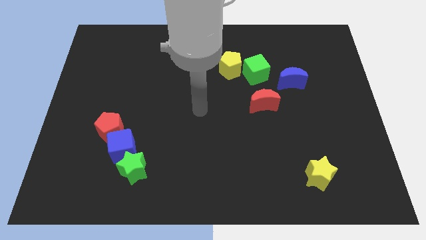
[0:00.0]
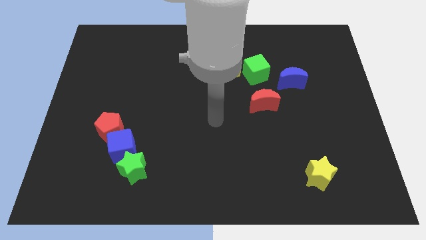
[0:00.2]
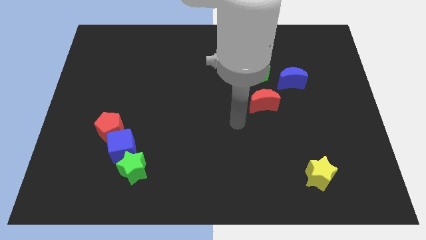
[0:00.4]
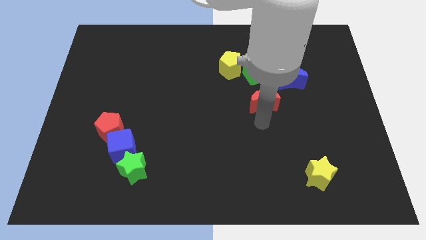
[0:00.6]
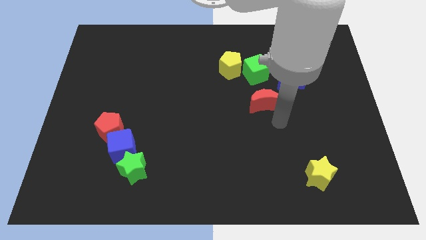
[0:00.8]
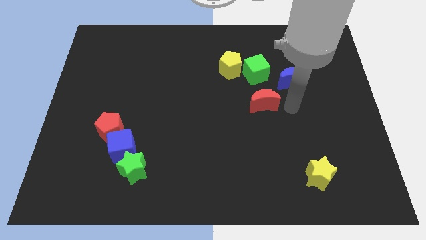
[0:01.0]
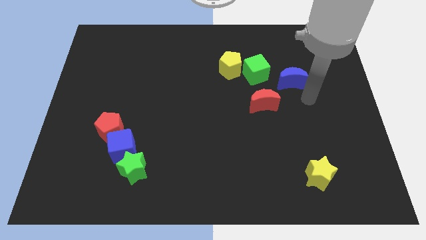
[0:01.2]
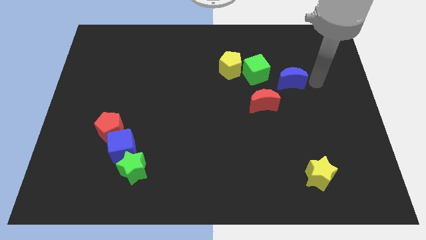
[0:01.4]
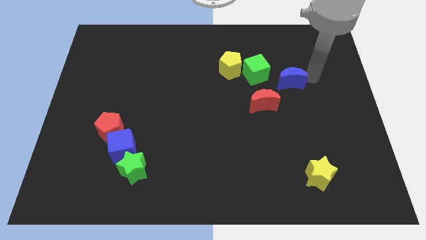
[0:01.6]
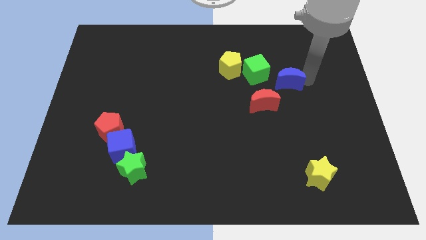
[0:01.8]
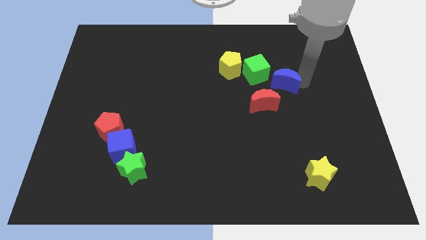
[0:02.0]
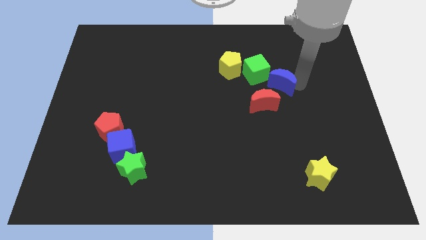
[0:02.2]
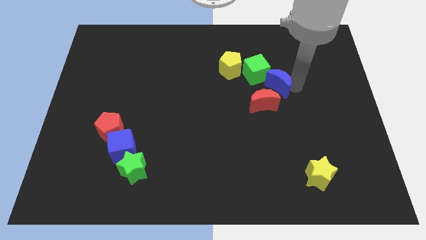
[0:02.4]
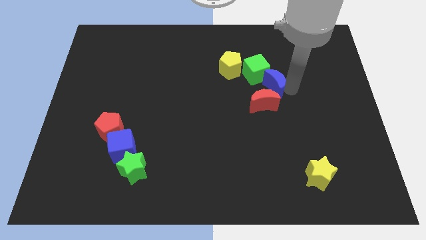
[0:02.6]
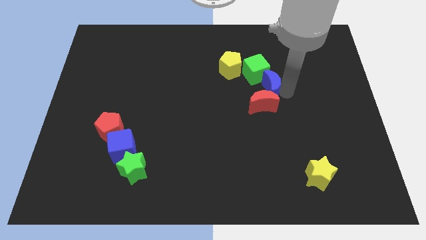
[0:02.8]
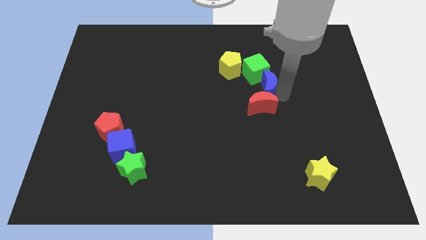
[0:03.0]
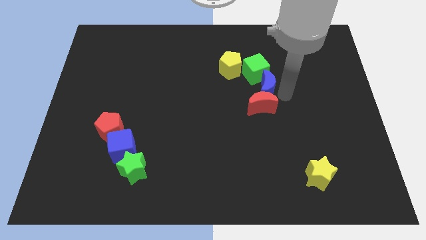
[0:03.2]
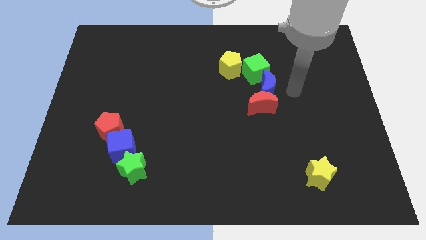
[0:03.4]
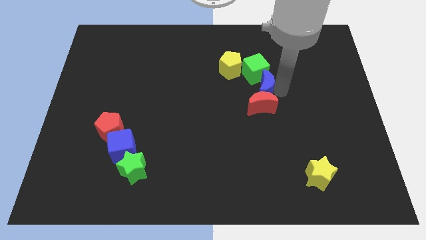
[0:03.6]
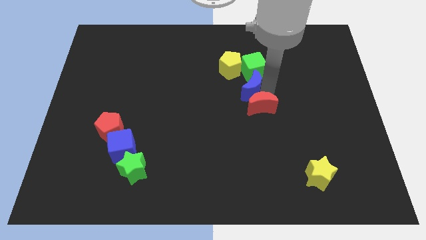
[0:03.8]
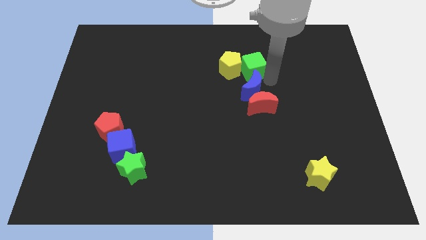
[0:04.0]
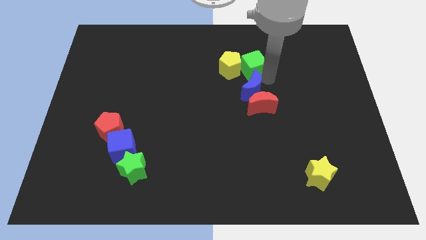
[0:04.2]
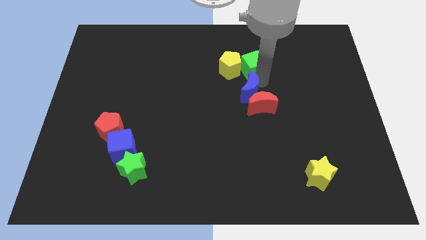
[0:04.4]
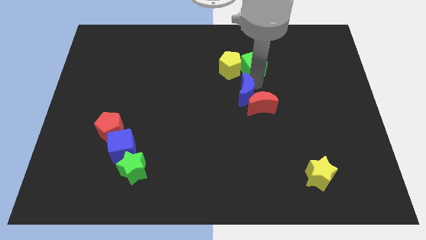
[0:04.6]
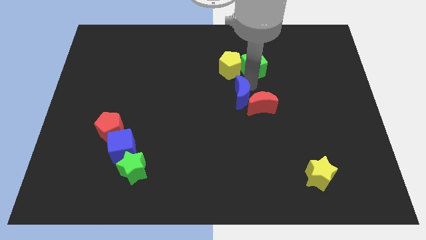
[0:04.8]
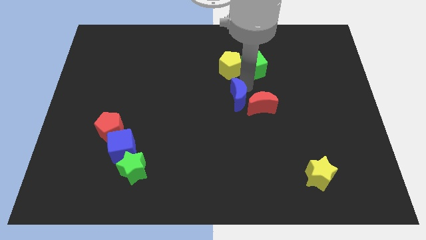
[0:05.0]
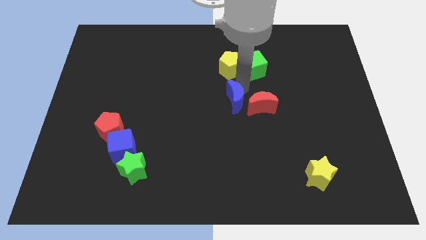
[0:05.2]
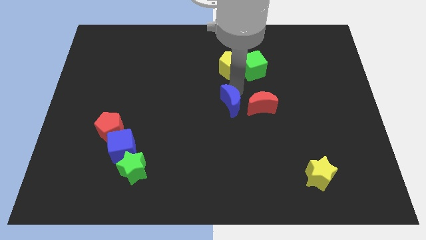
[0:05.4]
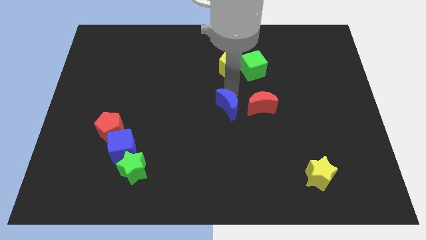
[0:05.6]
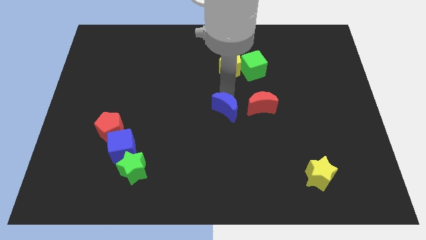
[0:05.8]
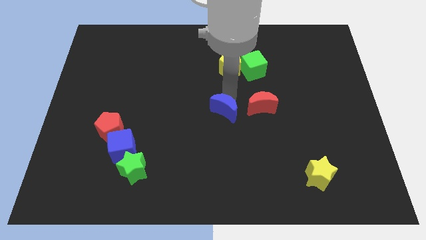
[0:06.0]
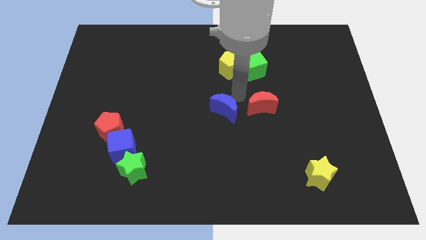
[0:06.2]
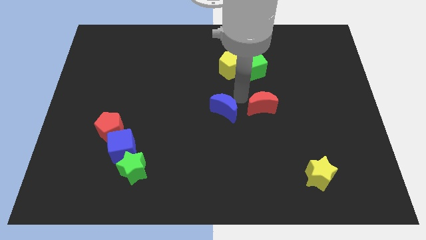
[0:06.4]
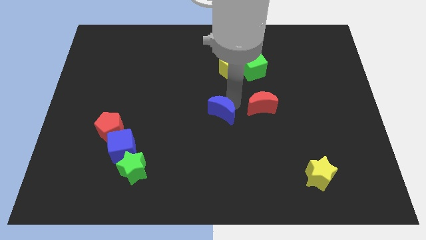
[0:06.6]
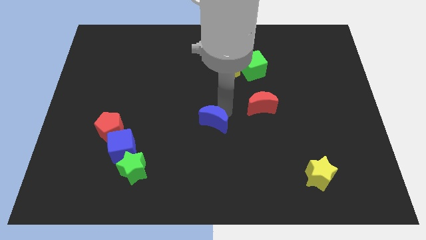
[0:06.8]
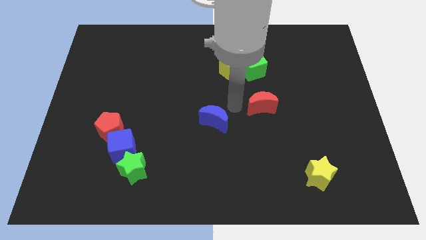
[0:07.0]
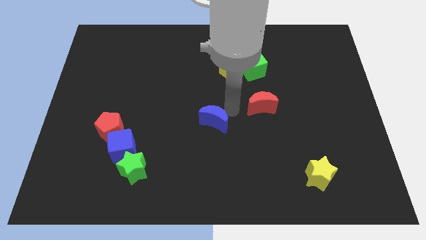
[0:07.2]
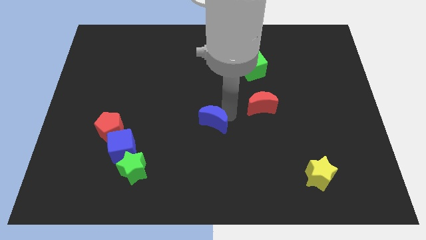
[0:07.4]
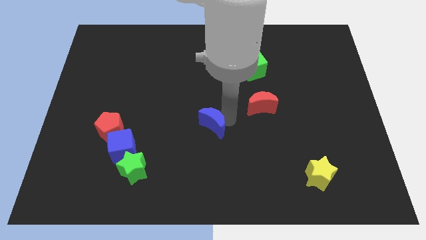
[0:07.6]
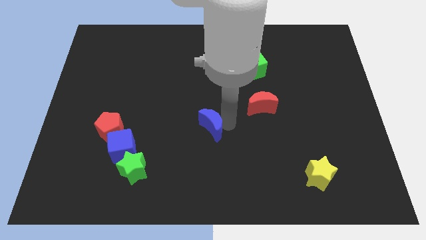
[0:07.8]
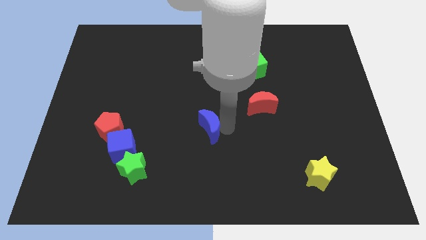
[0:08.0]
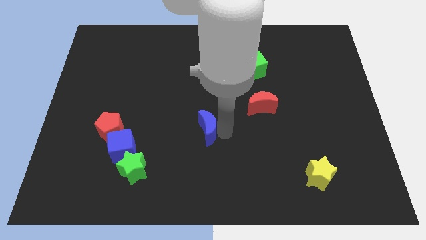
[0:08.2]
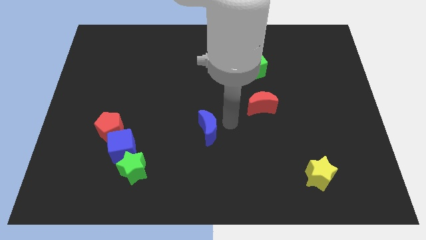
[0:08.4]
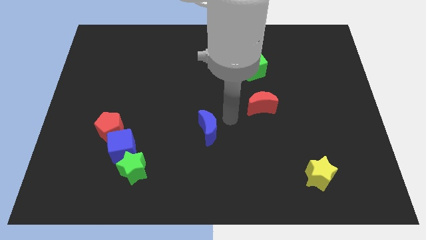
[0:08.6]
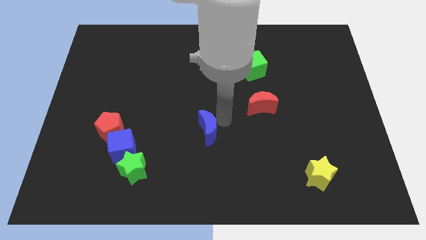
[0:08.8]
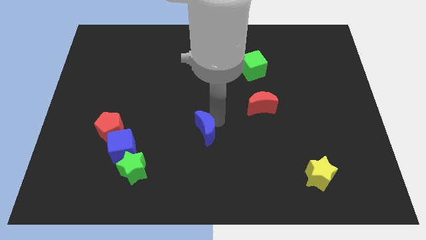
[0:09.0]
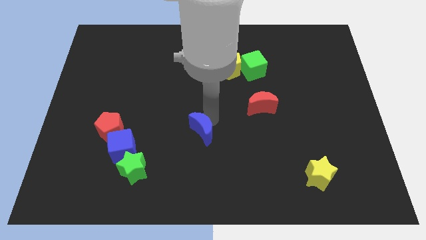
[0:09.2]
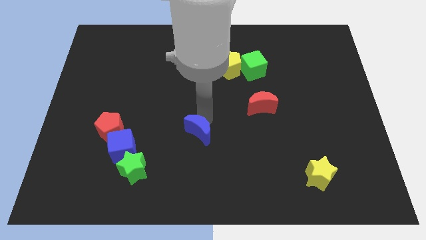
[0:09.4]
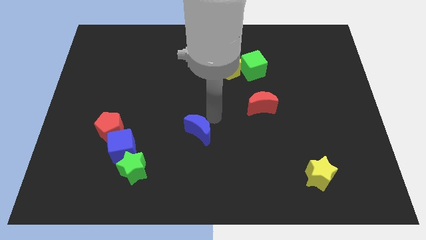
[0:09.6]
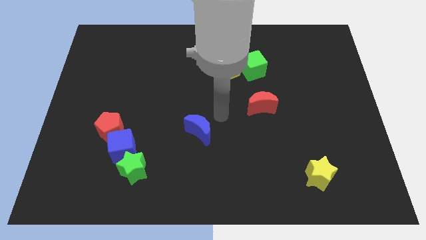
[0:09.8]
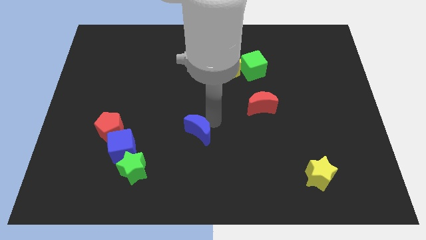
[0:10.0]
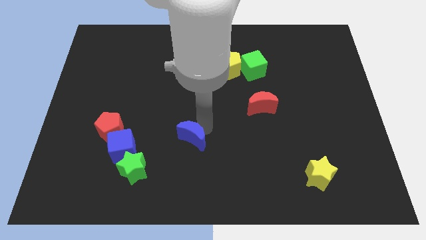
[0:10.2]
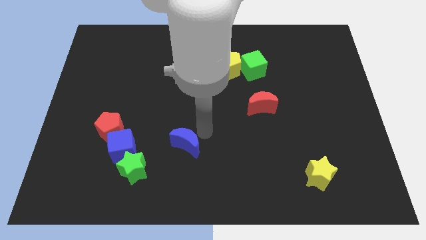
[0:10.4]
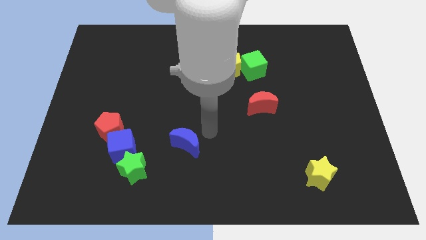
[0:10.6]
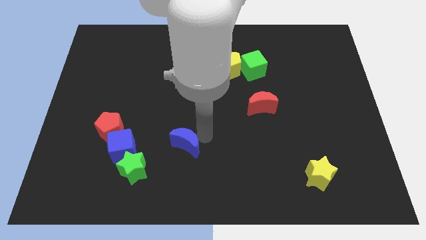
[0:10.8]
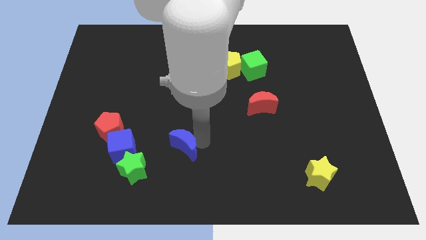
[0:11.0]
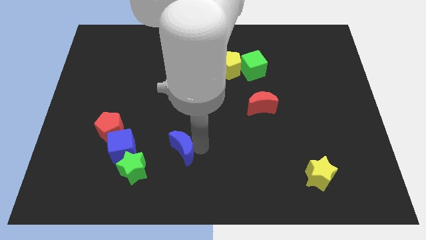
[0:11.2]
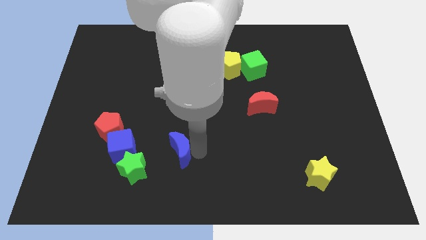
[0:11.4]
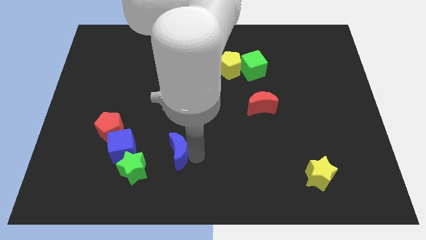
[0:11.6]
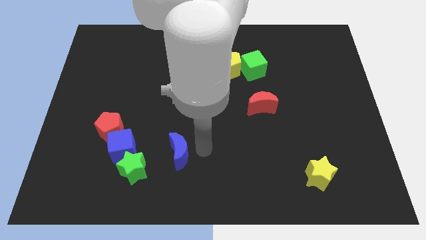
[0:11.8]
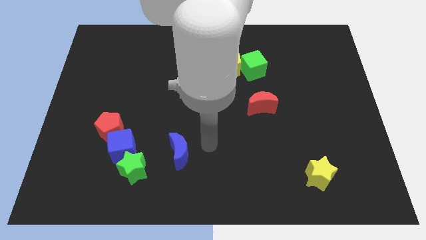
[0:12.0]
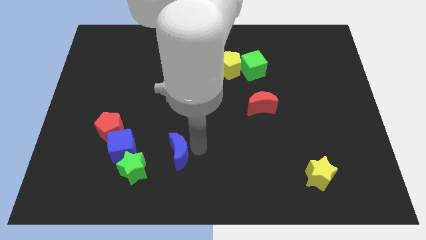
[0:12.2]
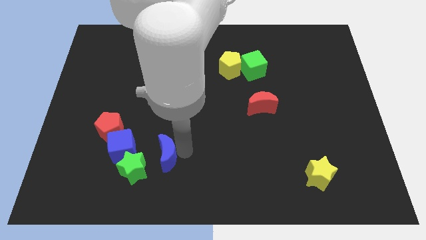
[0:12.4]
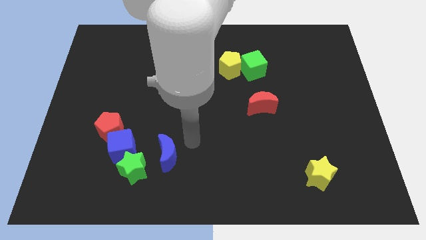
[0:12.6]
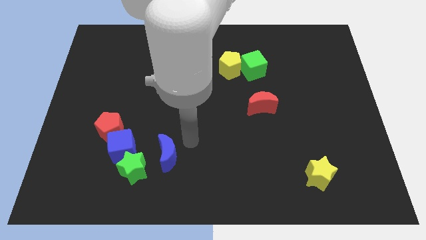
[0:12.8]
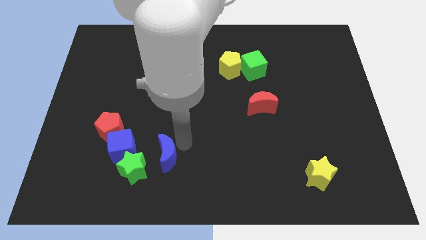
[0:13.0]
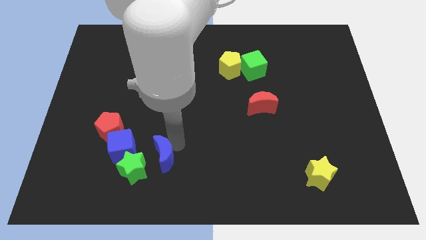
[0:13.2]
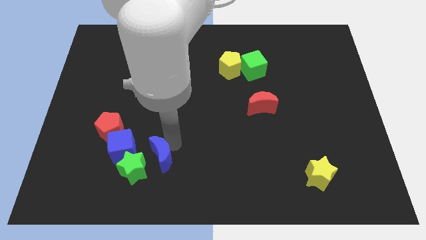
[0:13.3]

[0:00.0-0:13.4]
slide the blue moon to the bottom right side of the blue cube
